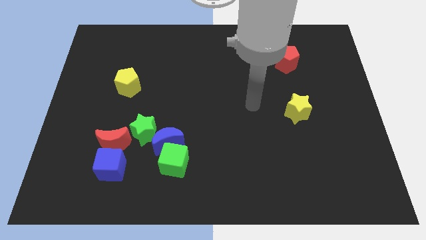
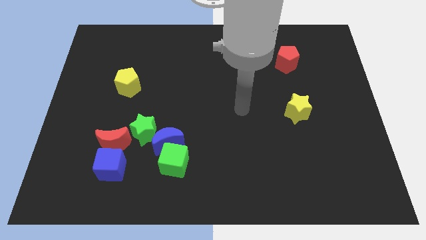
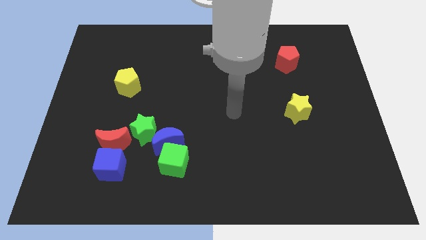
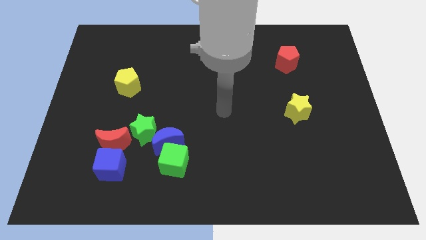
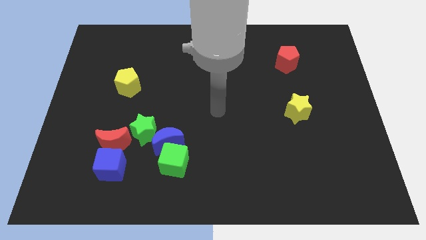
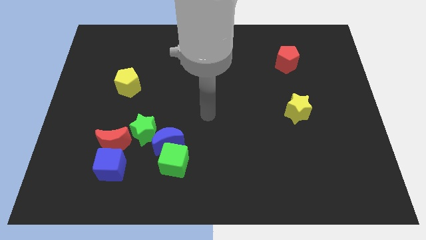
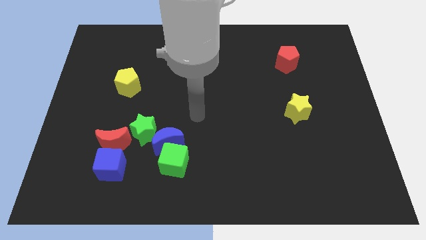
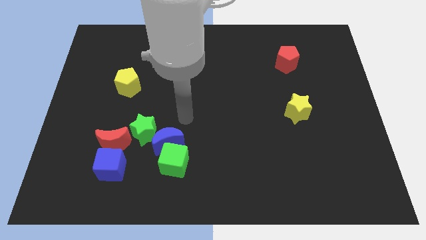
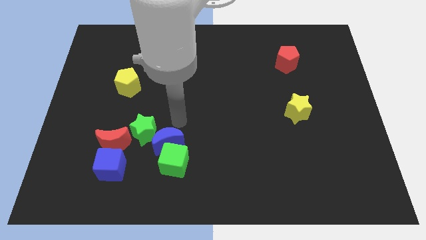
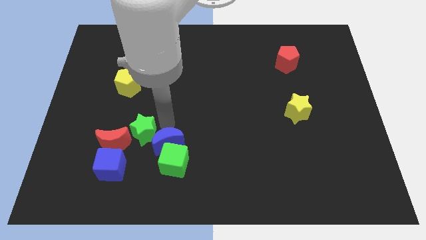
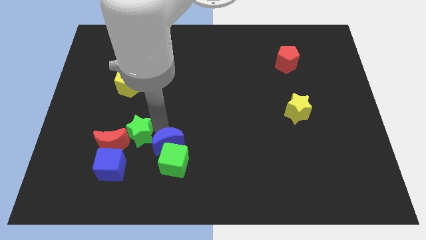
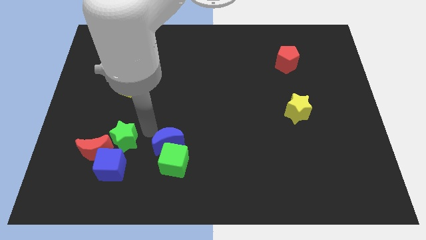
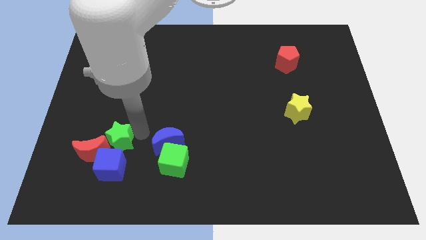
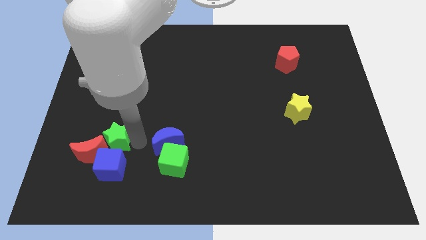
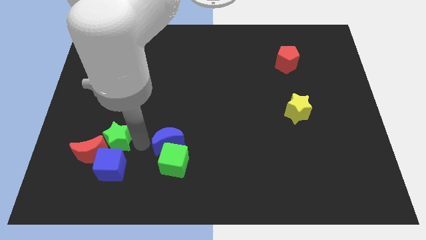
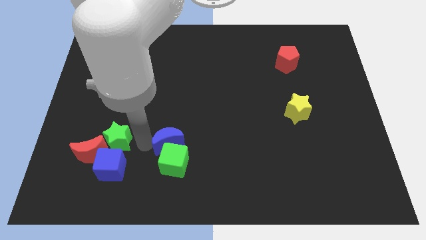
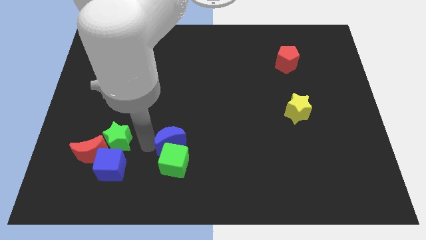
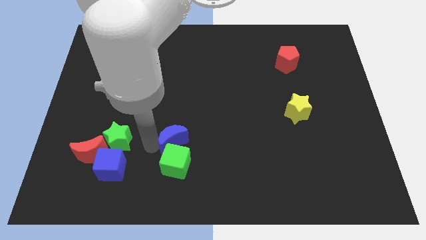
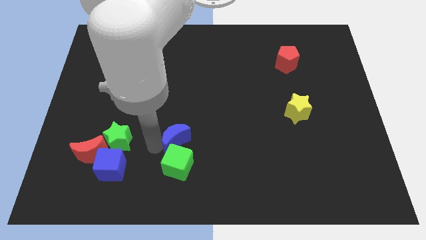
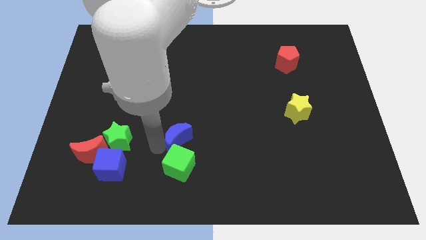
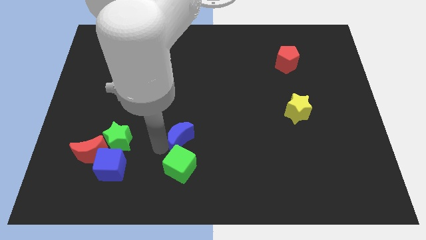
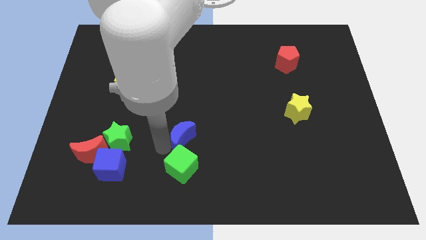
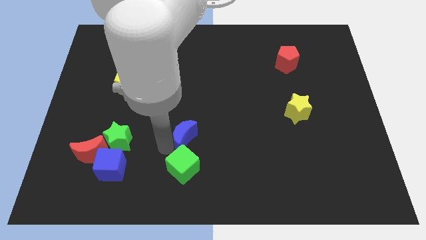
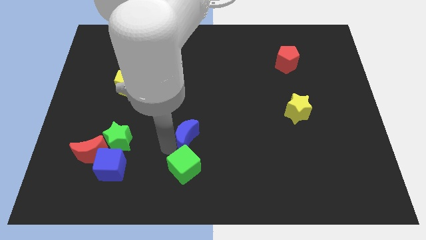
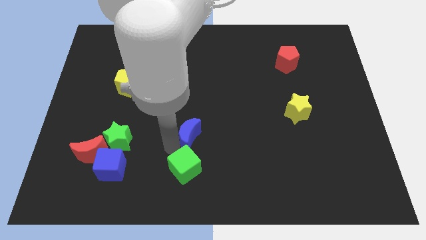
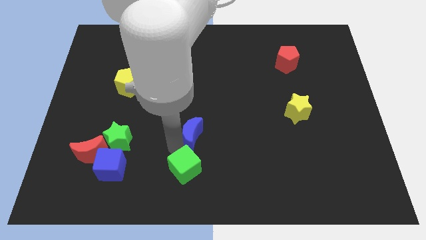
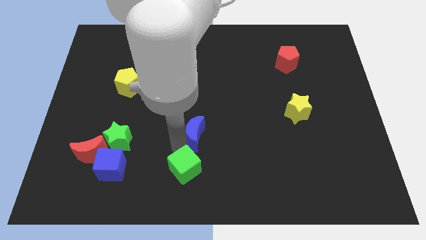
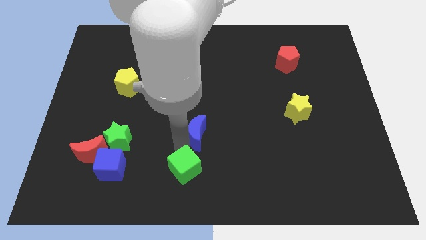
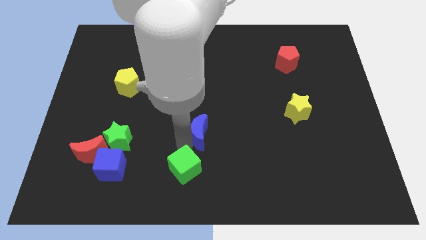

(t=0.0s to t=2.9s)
slightly push the blue moon to the right

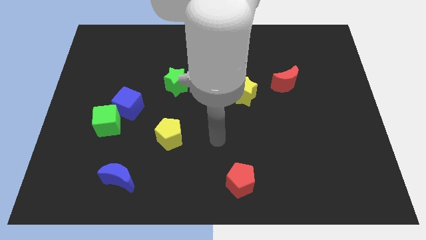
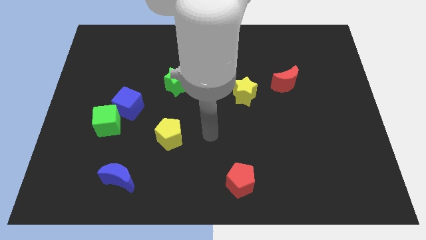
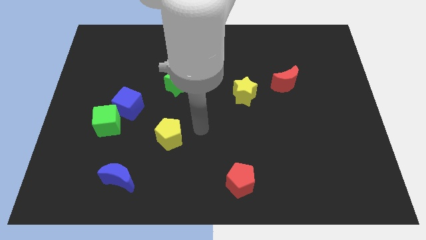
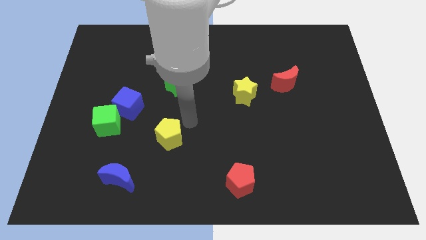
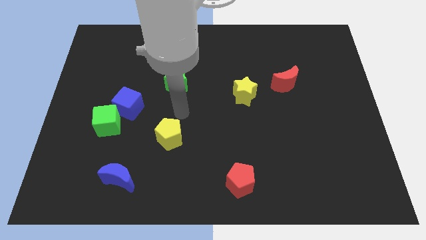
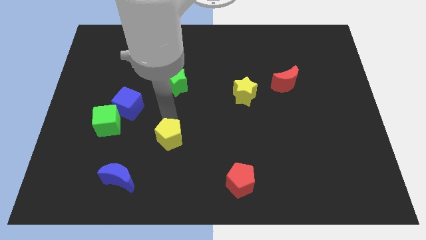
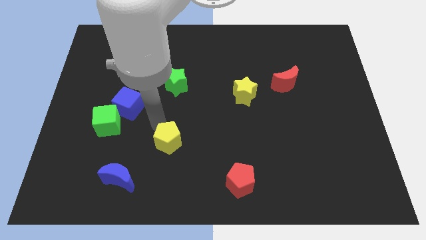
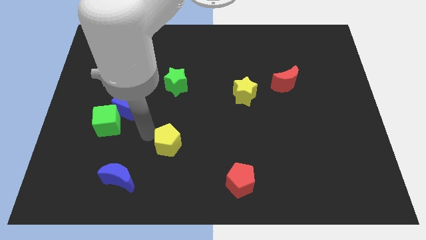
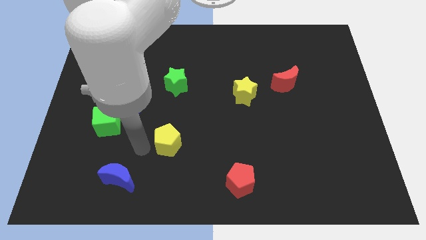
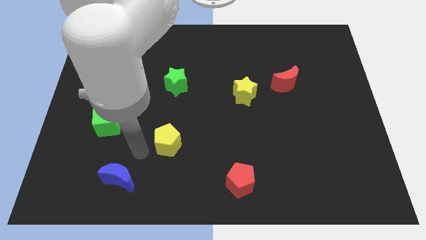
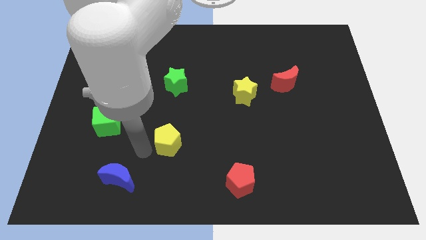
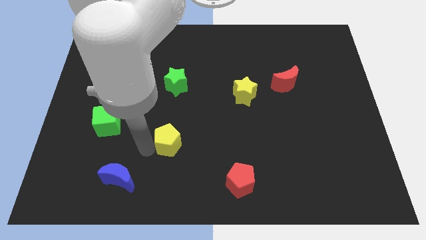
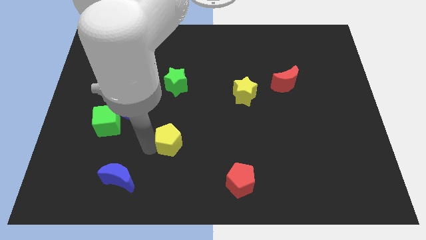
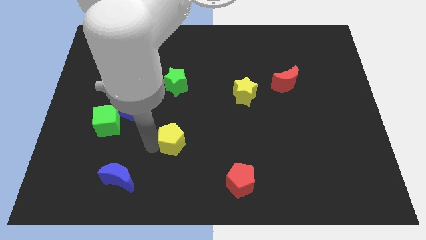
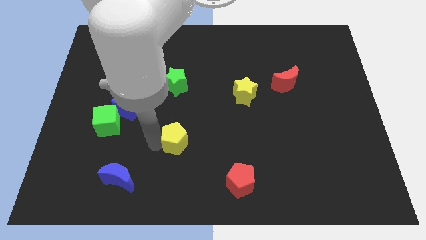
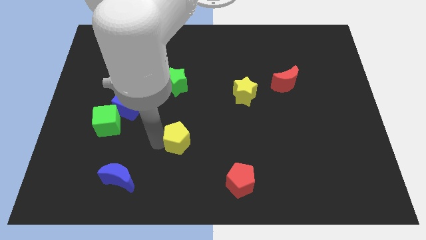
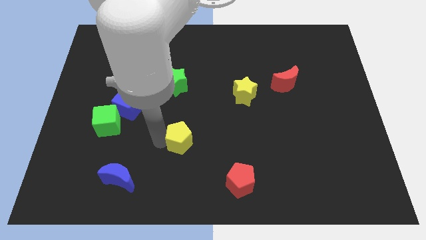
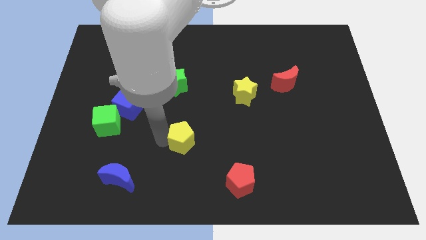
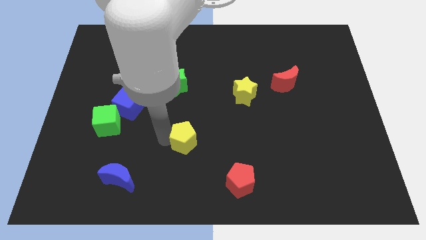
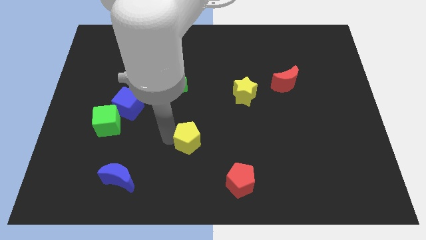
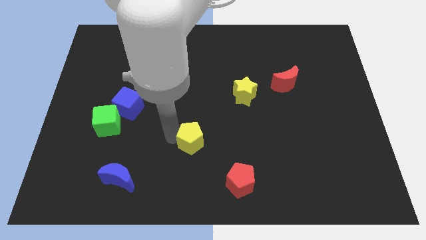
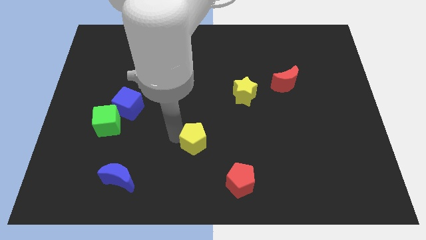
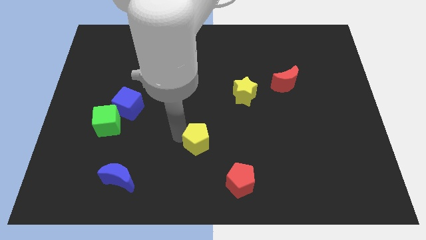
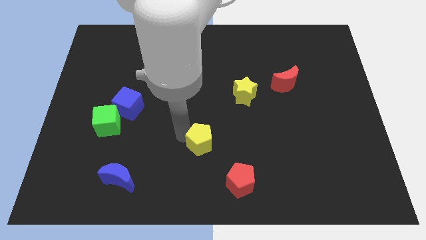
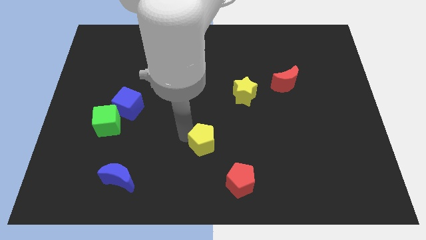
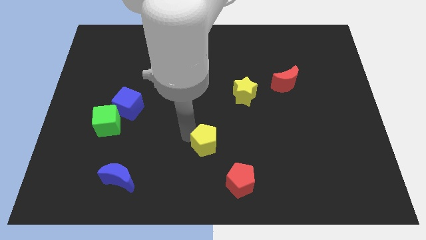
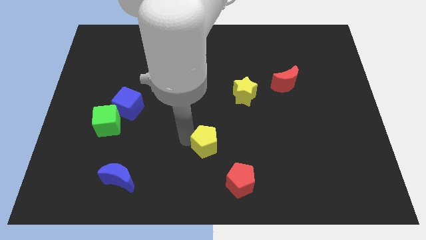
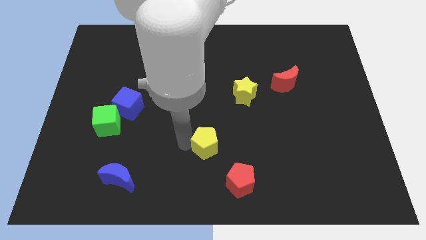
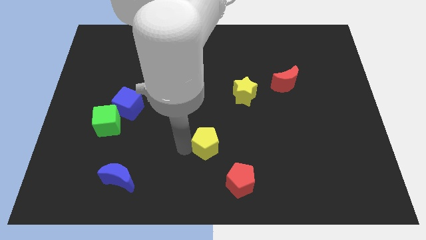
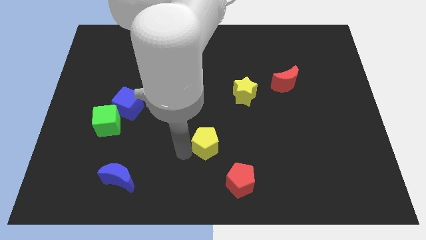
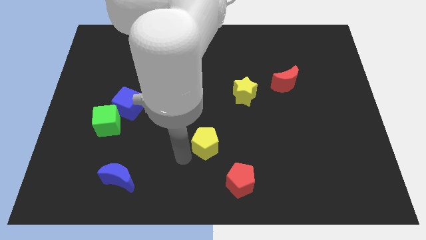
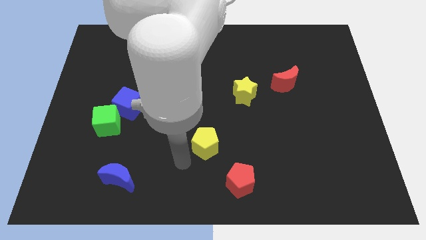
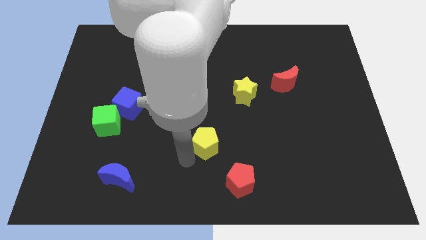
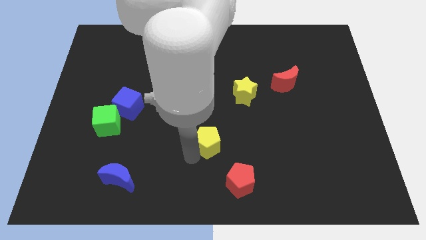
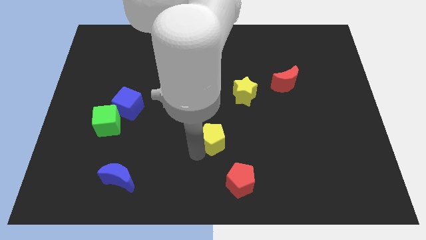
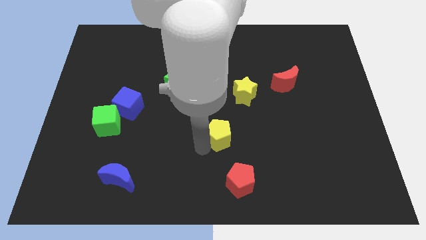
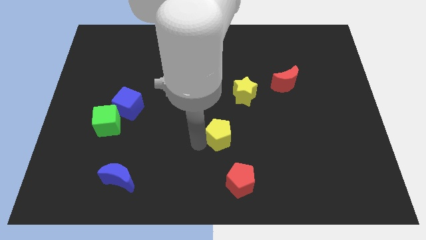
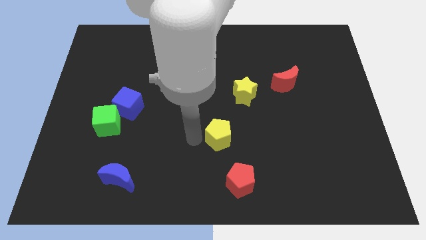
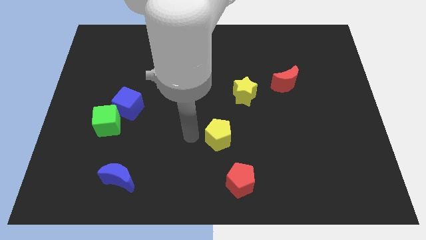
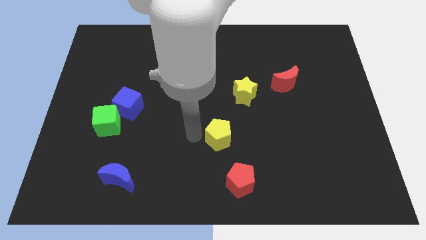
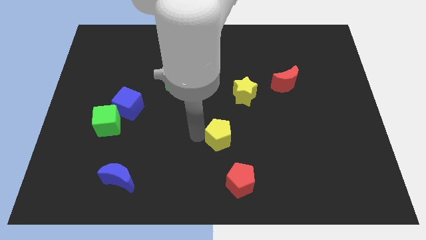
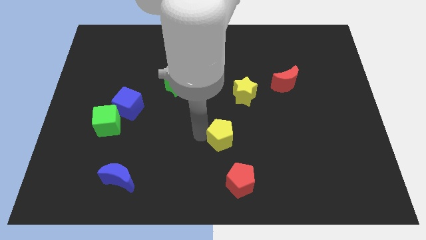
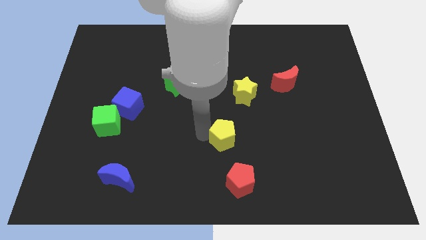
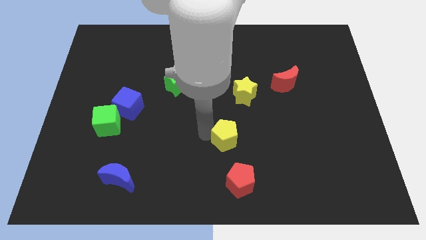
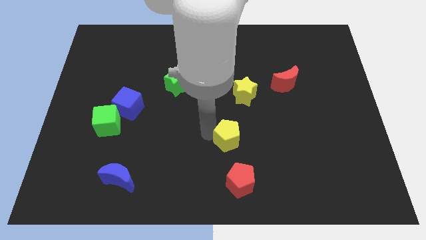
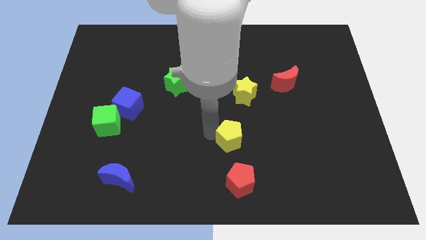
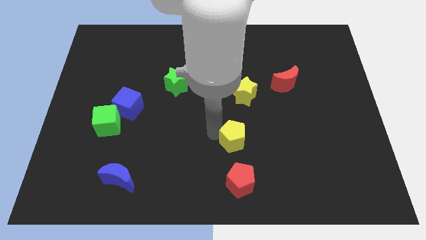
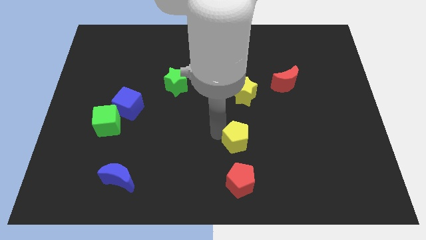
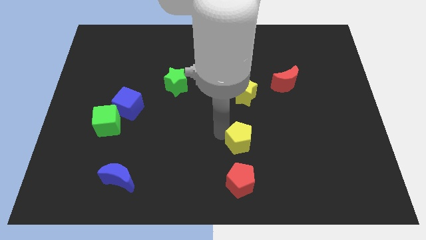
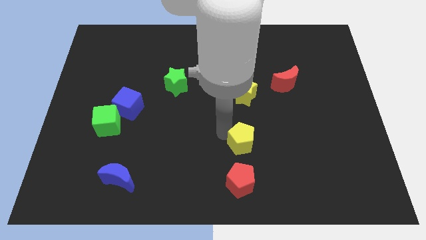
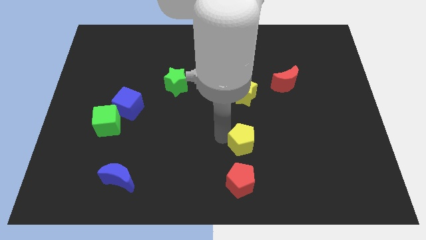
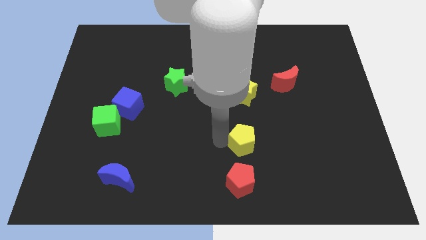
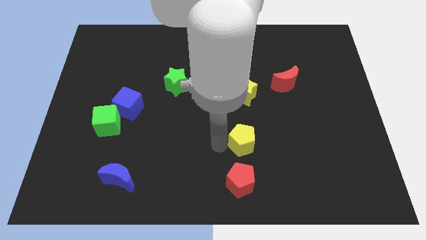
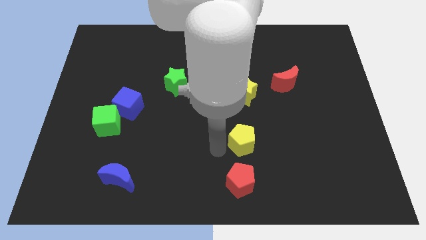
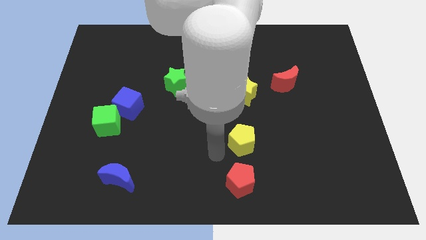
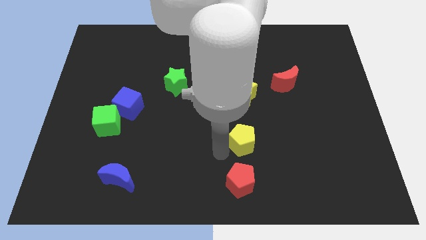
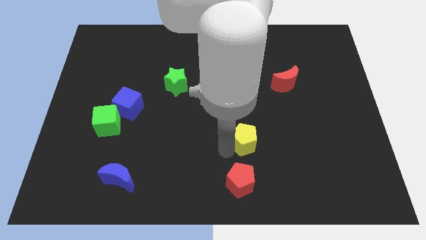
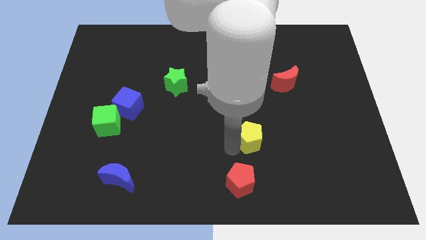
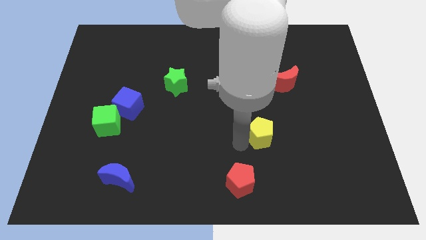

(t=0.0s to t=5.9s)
slide the yellow pentagon right
